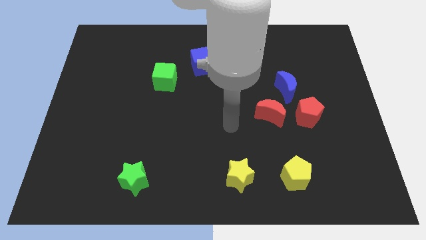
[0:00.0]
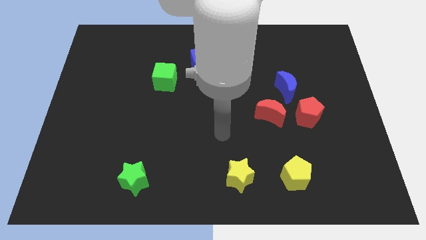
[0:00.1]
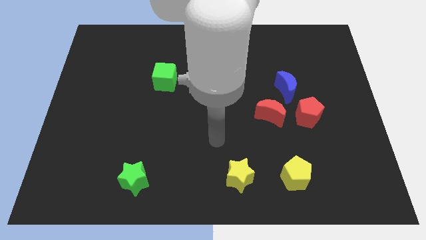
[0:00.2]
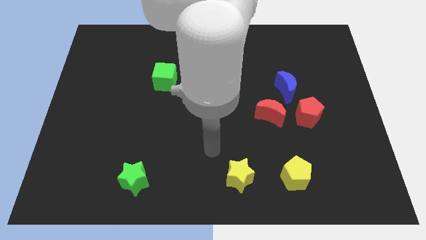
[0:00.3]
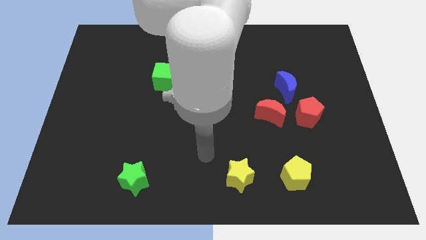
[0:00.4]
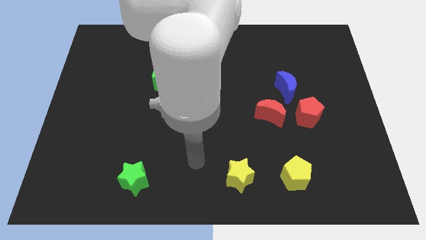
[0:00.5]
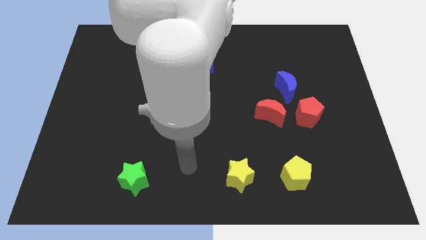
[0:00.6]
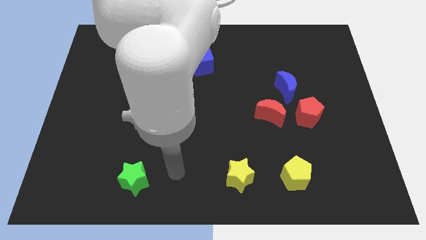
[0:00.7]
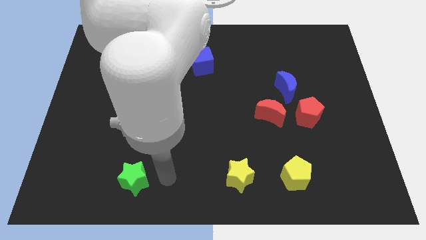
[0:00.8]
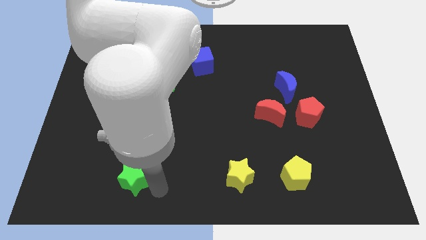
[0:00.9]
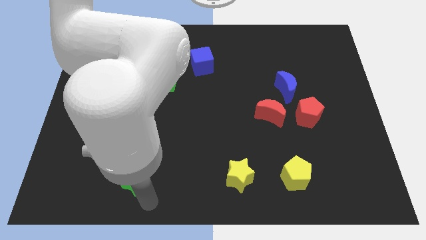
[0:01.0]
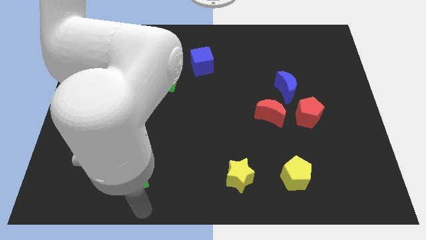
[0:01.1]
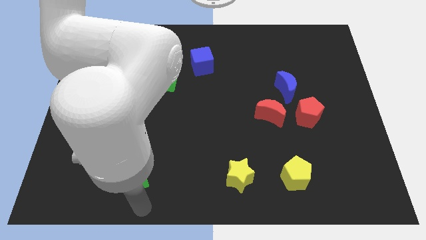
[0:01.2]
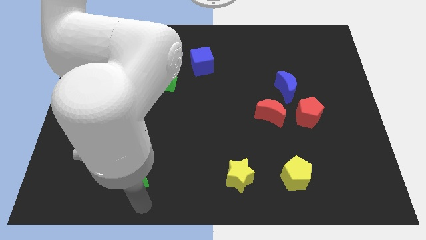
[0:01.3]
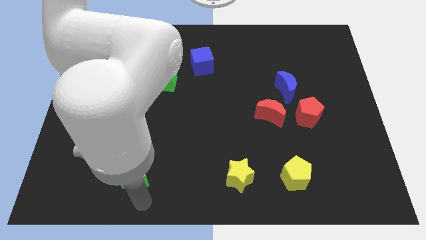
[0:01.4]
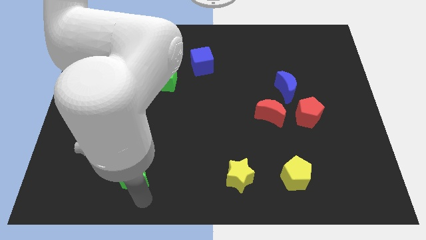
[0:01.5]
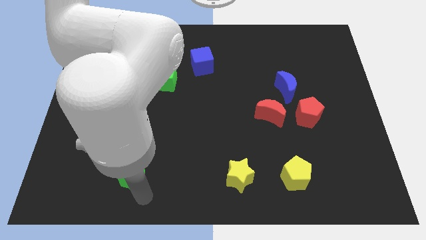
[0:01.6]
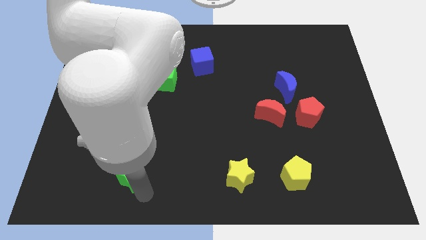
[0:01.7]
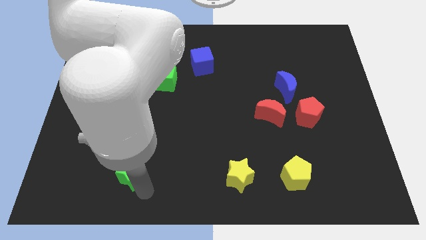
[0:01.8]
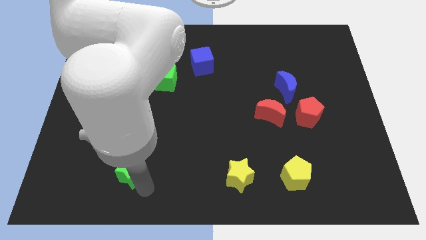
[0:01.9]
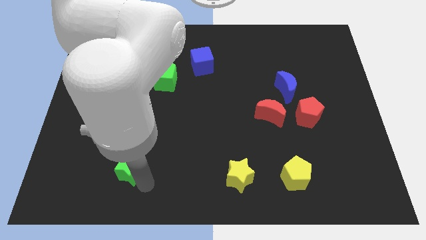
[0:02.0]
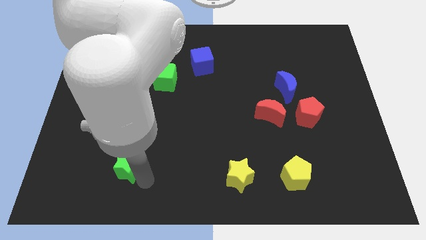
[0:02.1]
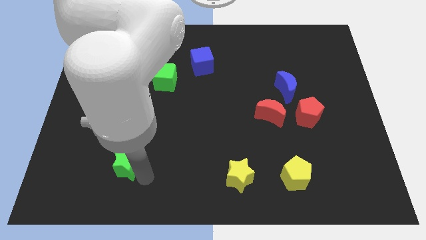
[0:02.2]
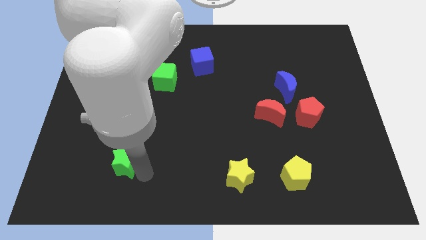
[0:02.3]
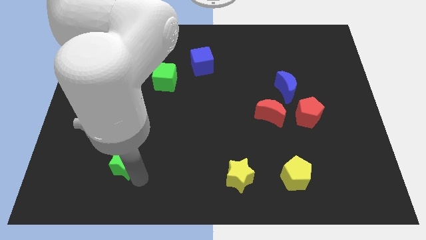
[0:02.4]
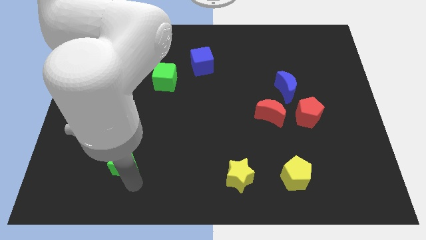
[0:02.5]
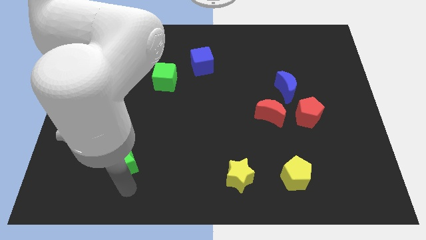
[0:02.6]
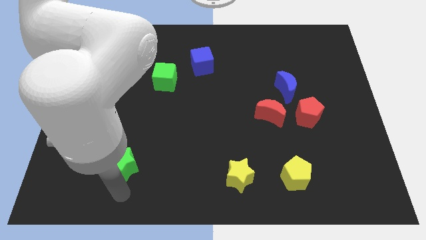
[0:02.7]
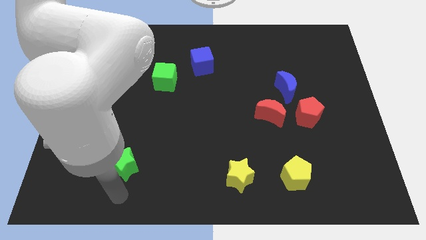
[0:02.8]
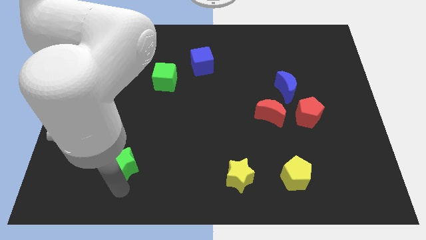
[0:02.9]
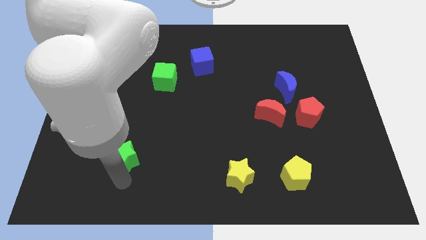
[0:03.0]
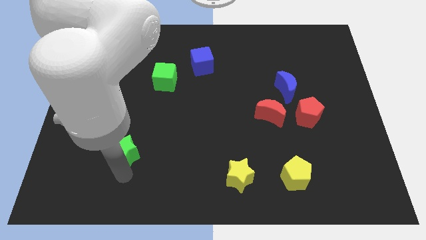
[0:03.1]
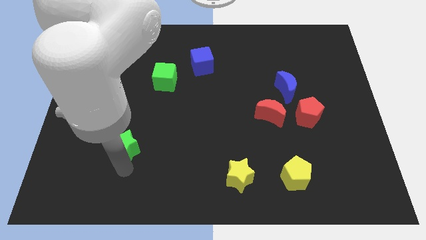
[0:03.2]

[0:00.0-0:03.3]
push the green star upwards slightly

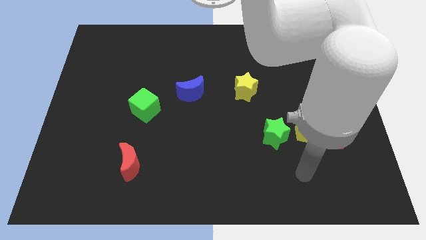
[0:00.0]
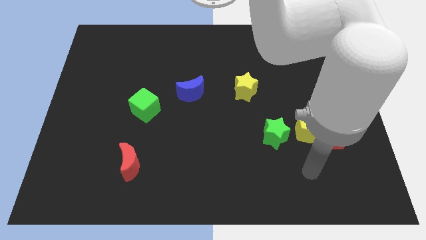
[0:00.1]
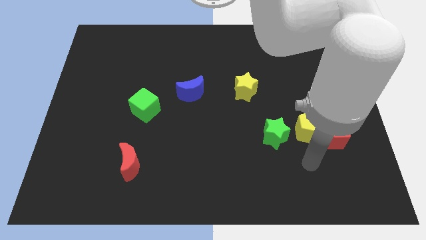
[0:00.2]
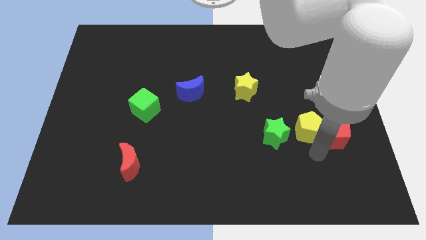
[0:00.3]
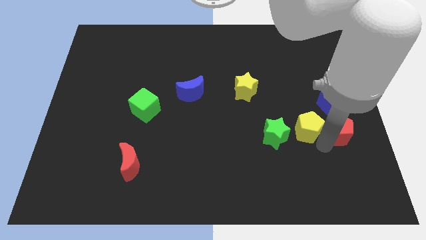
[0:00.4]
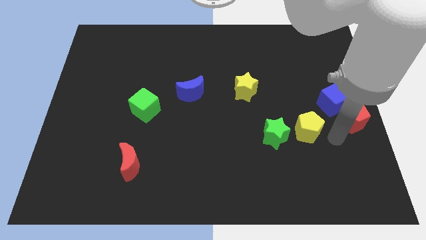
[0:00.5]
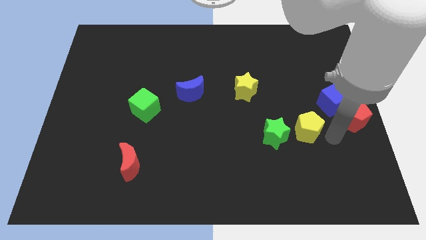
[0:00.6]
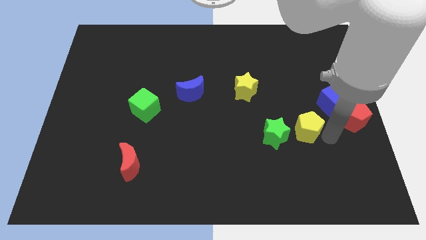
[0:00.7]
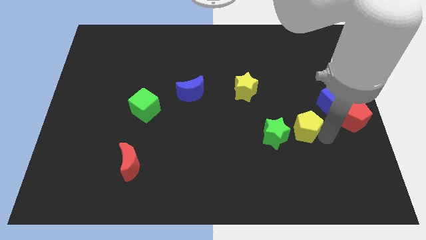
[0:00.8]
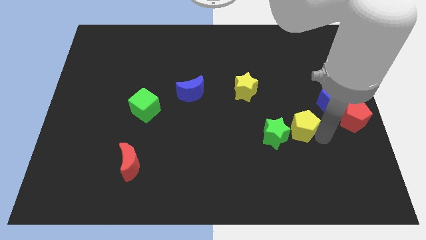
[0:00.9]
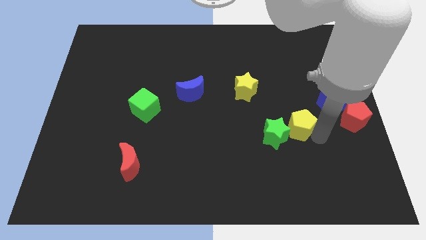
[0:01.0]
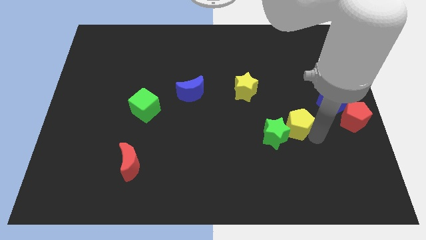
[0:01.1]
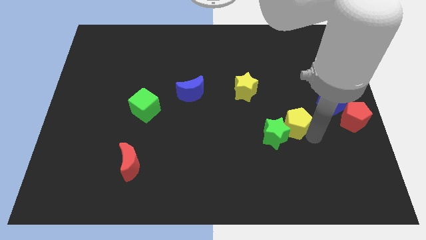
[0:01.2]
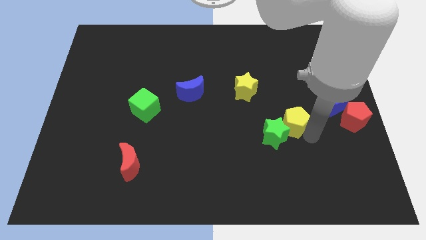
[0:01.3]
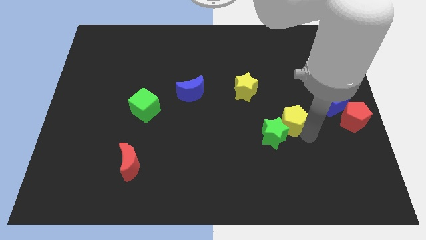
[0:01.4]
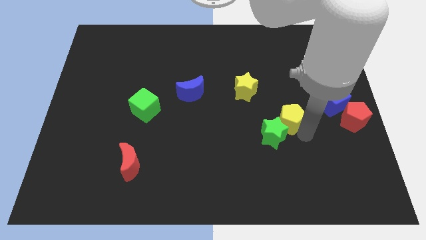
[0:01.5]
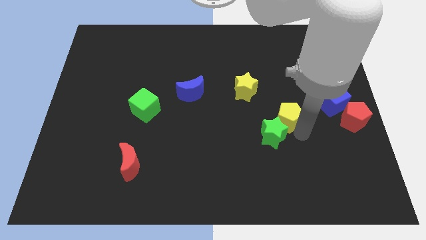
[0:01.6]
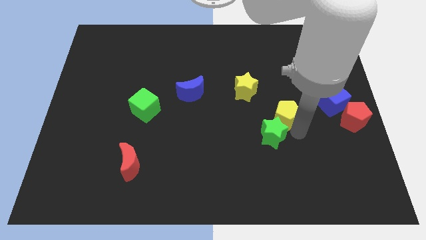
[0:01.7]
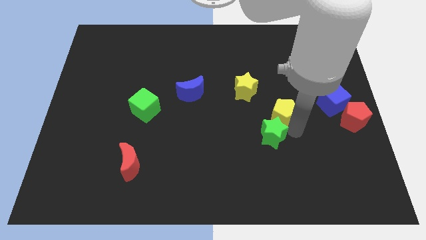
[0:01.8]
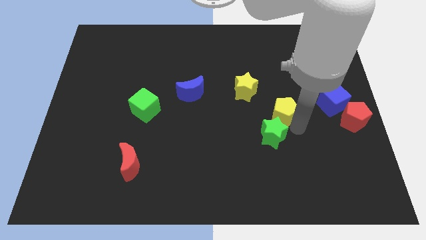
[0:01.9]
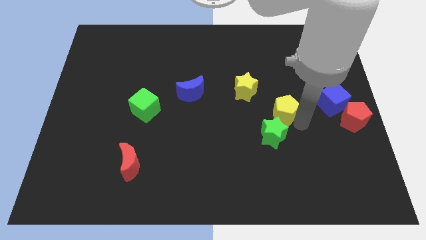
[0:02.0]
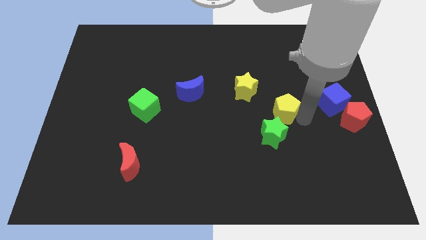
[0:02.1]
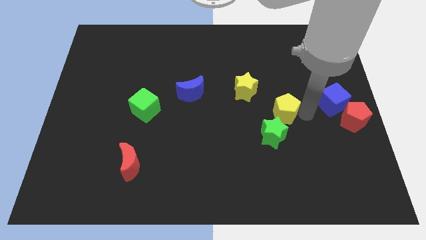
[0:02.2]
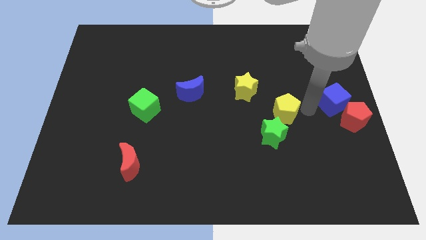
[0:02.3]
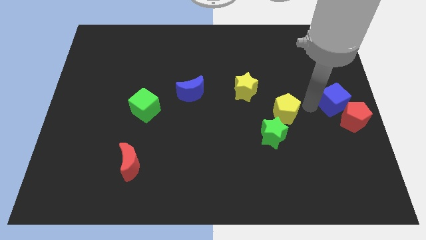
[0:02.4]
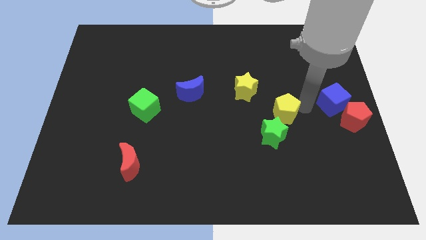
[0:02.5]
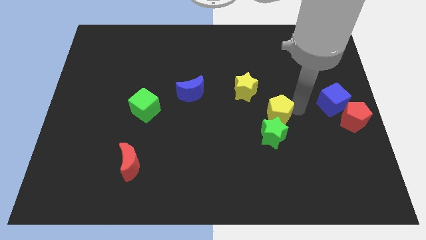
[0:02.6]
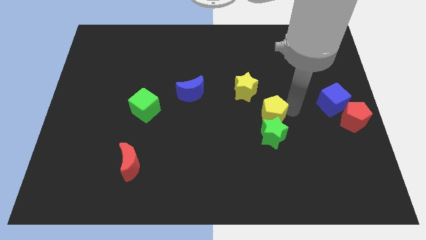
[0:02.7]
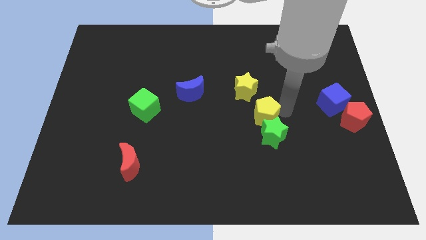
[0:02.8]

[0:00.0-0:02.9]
slide the yellow pentagon to the left a little

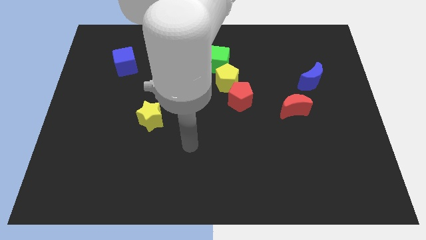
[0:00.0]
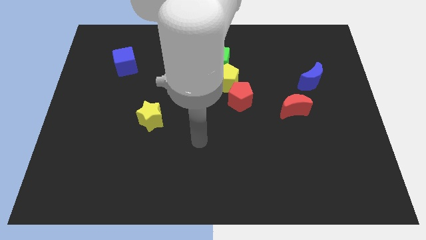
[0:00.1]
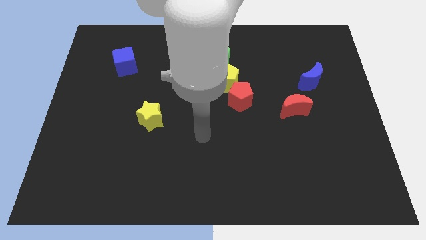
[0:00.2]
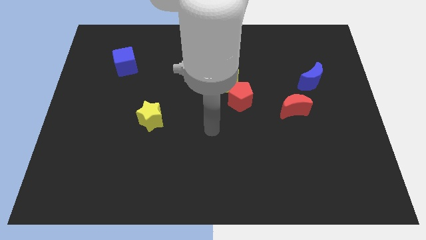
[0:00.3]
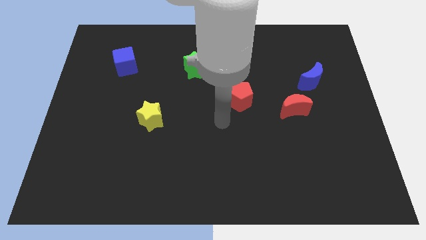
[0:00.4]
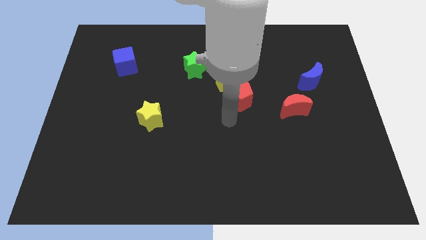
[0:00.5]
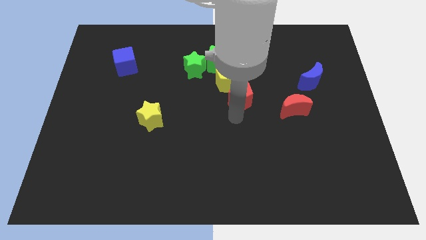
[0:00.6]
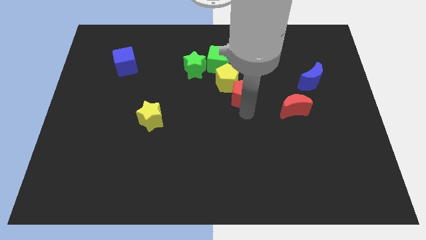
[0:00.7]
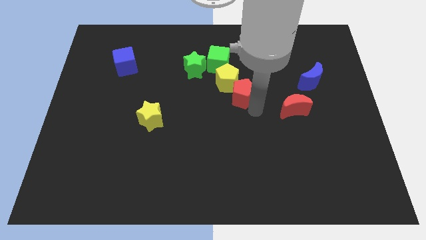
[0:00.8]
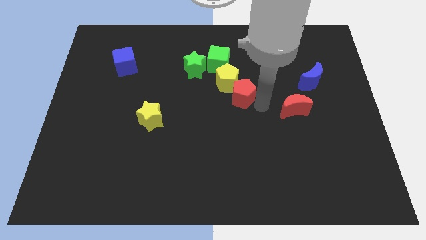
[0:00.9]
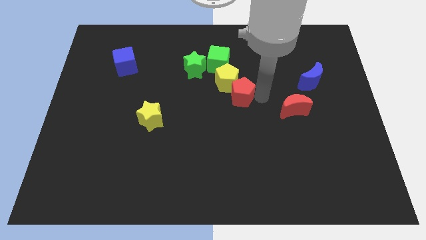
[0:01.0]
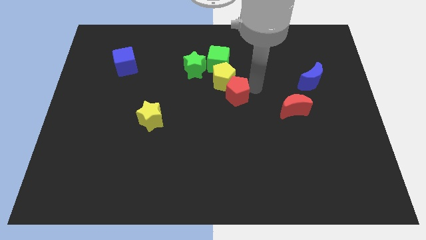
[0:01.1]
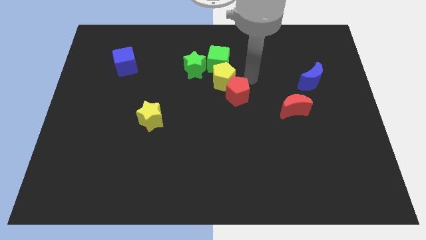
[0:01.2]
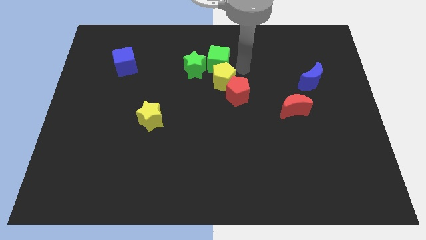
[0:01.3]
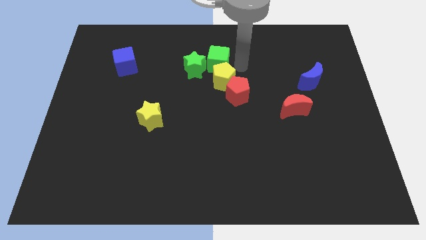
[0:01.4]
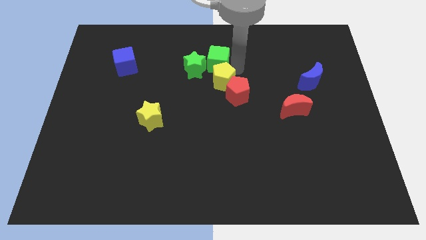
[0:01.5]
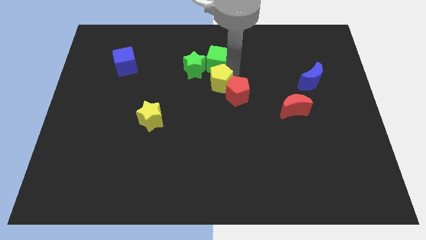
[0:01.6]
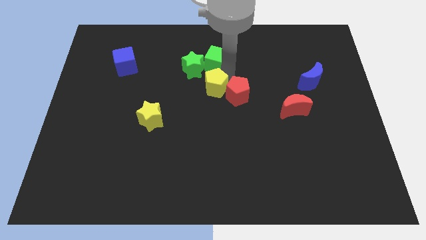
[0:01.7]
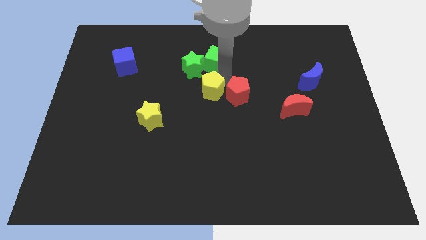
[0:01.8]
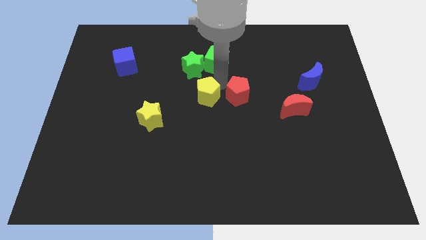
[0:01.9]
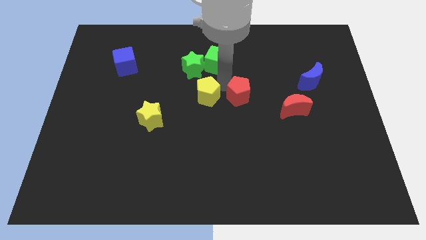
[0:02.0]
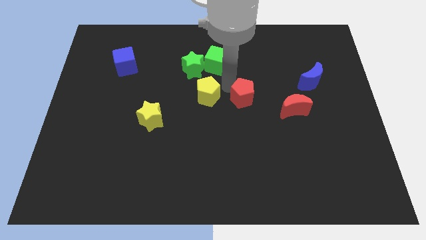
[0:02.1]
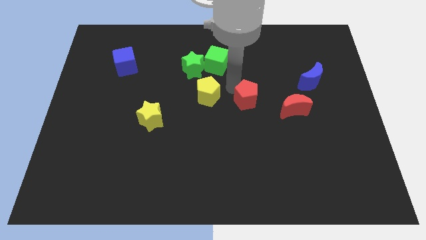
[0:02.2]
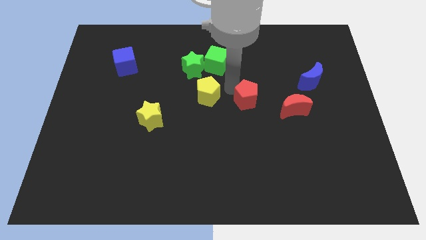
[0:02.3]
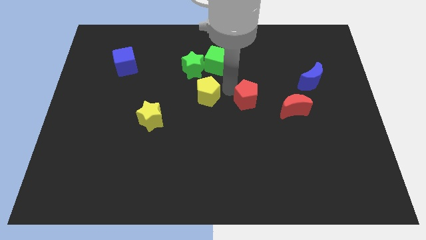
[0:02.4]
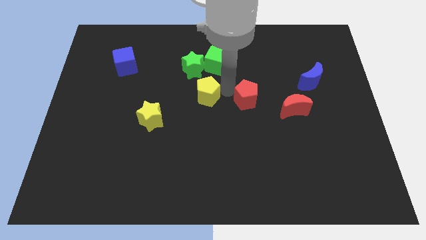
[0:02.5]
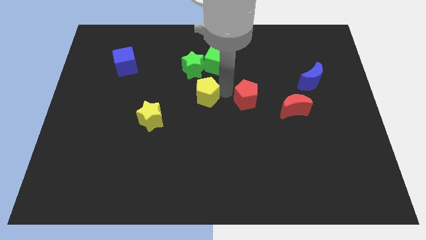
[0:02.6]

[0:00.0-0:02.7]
move the yellow pentagon slightly down and then left
